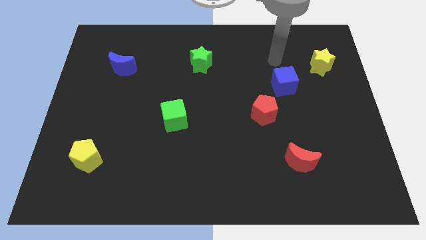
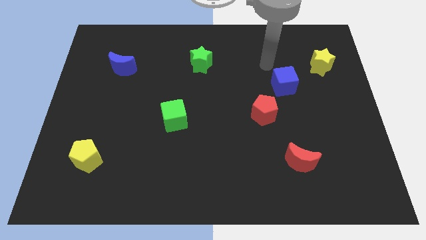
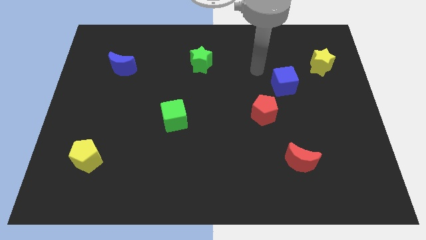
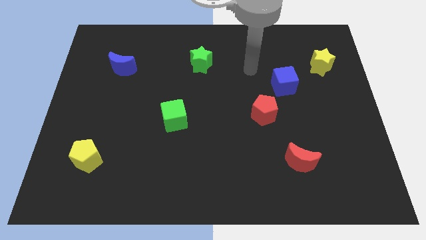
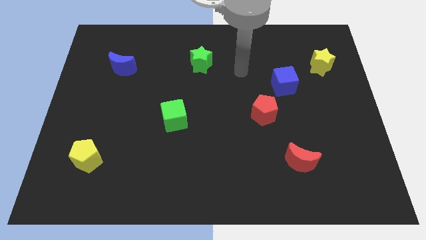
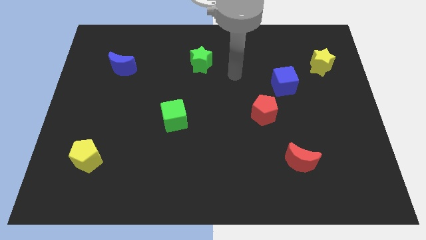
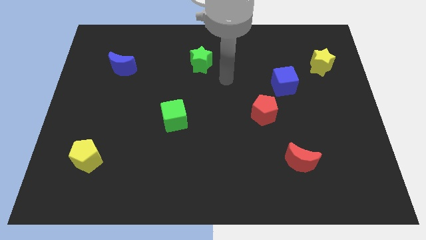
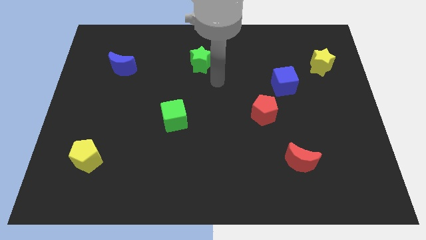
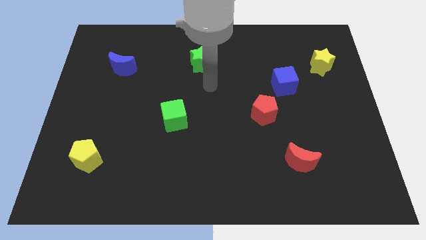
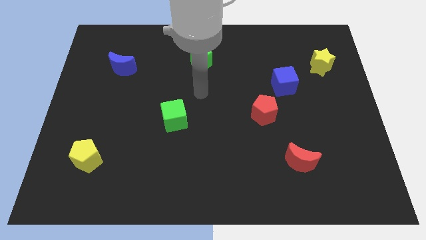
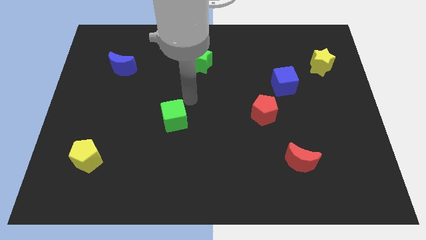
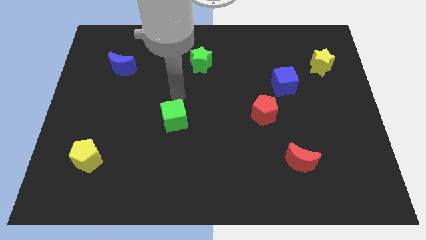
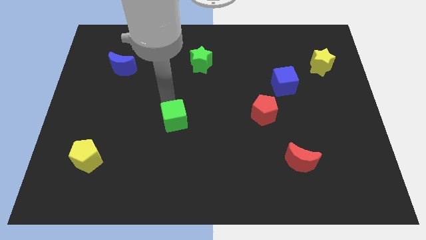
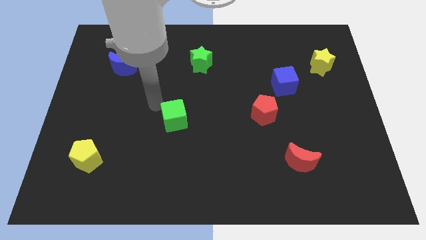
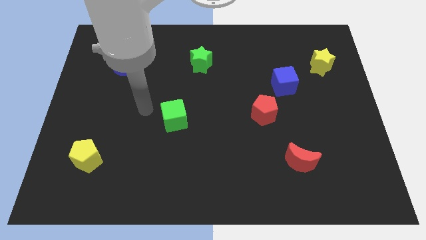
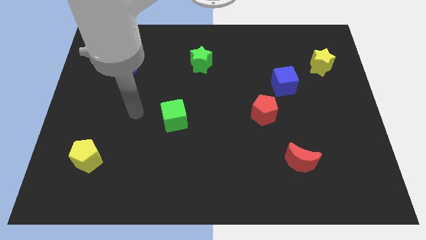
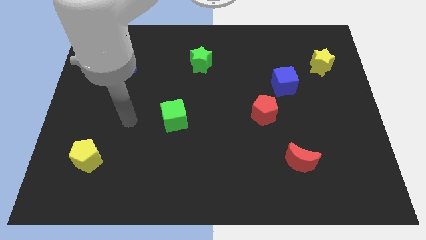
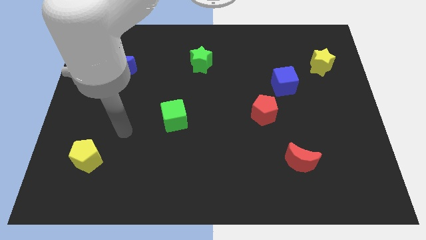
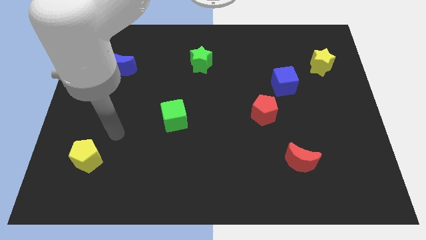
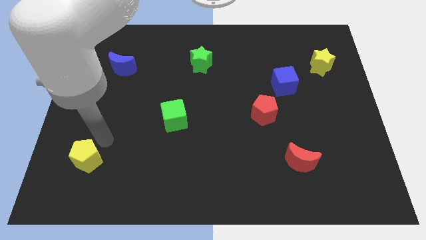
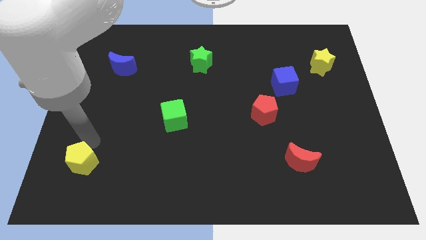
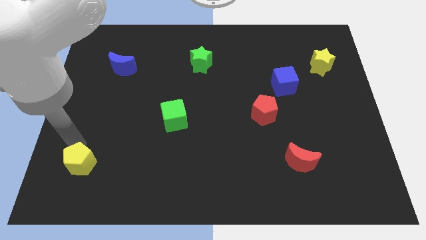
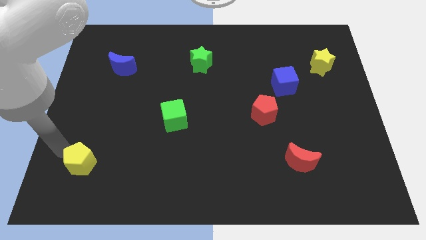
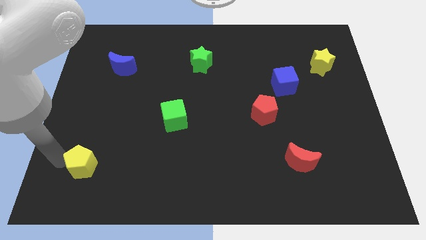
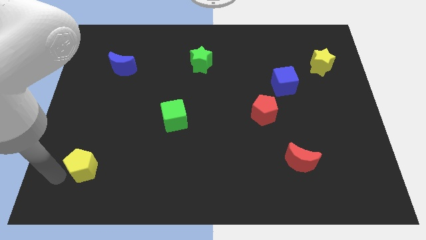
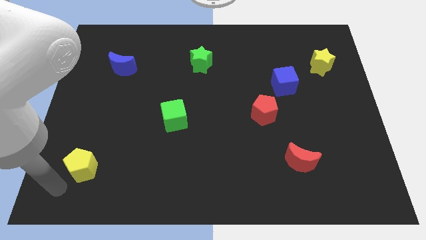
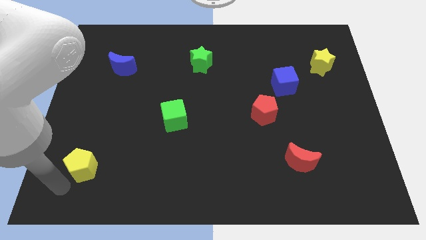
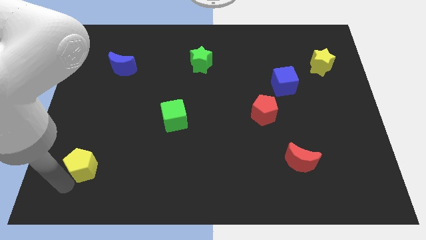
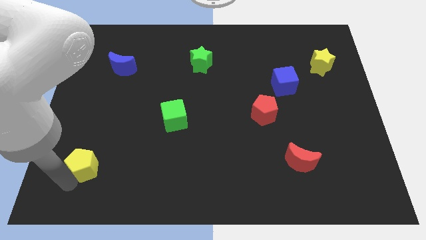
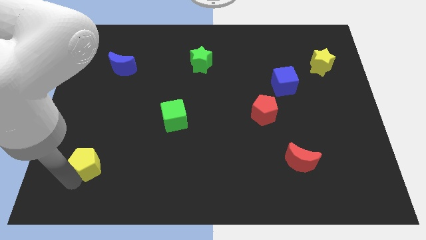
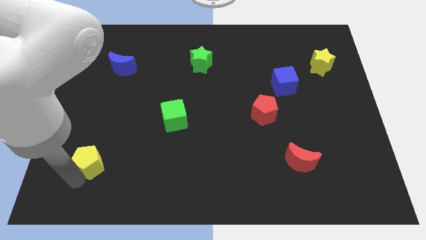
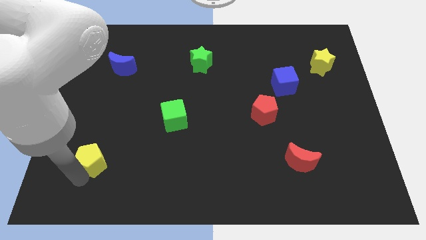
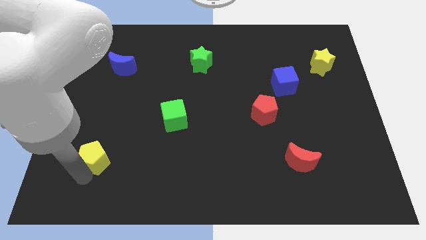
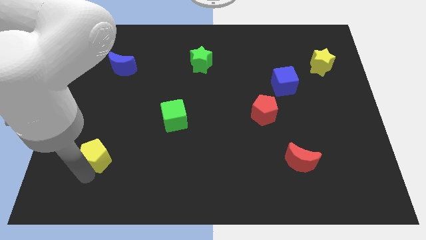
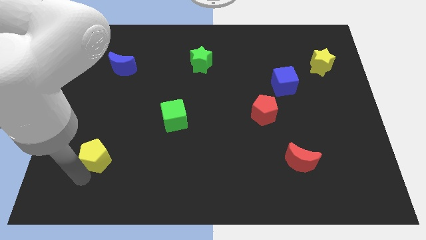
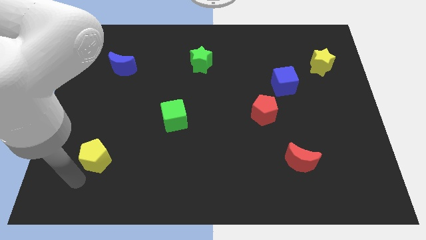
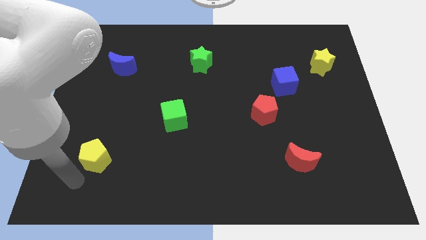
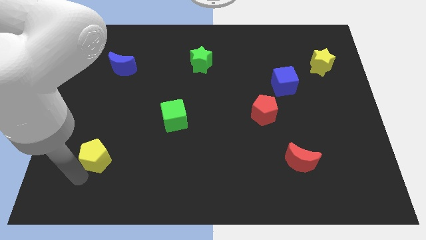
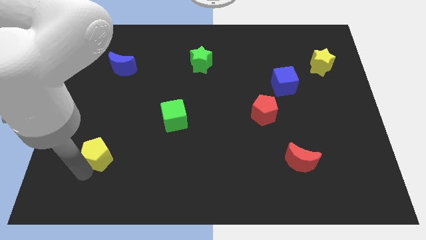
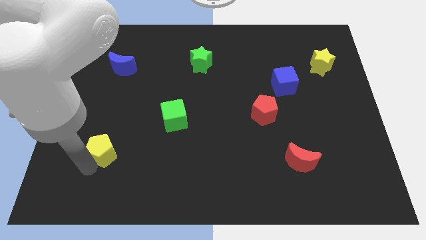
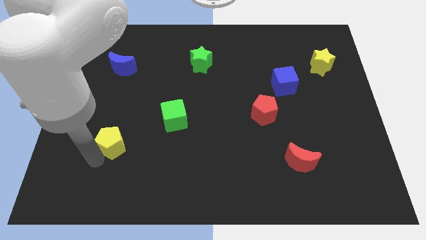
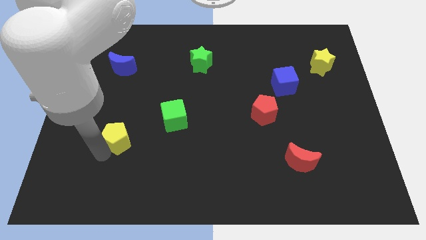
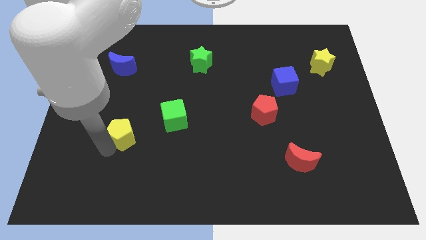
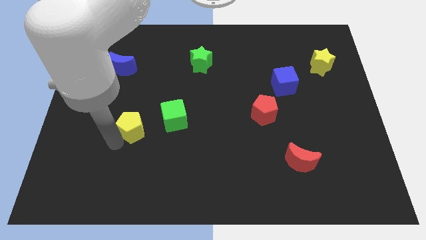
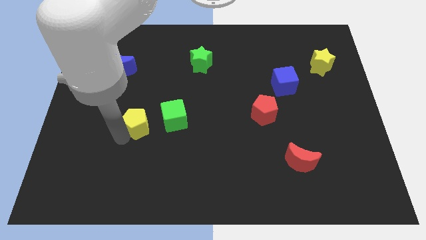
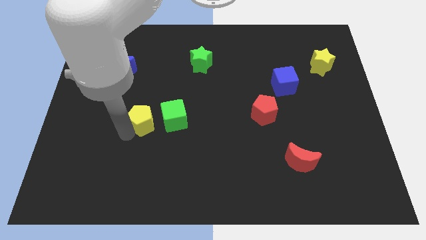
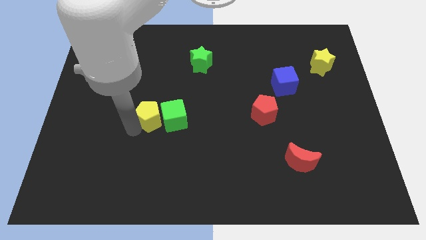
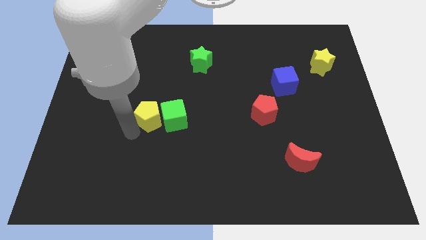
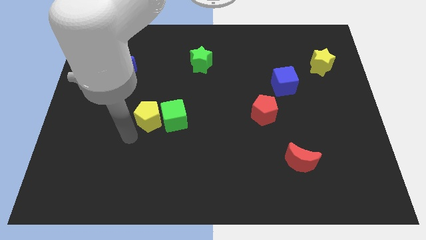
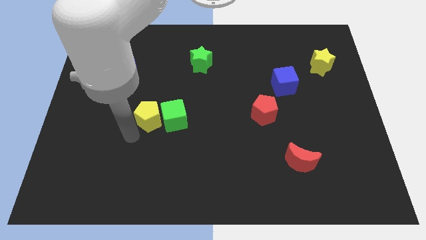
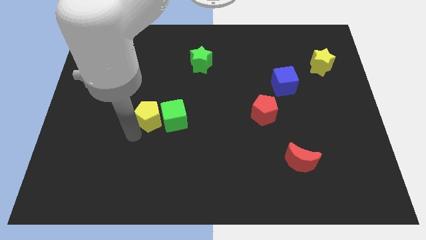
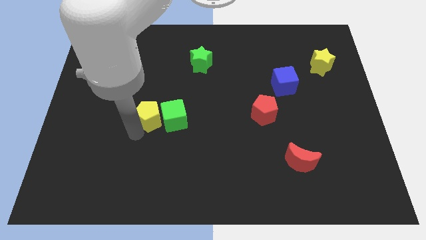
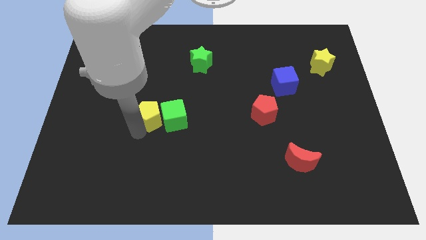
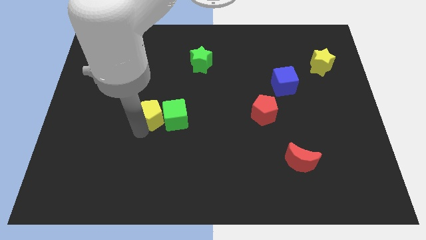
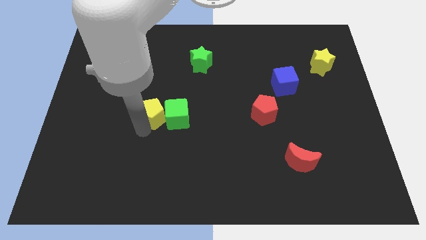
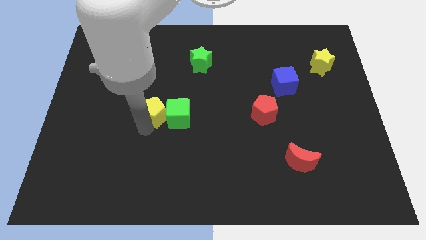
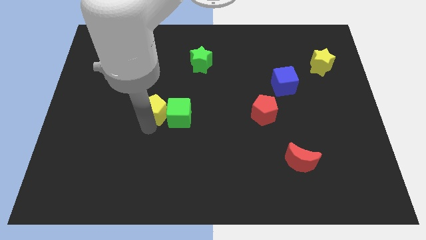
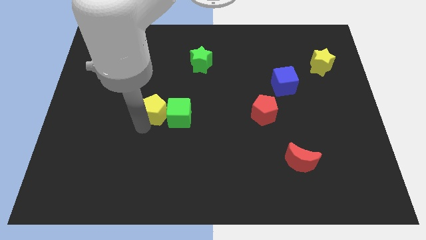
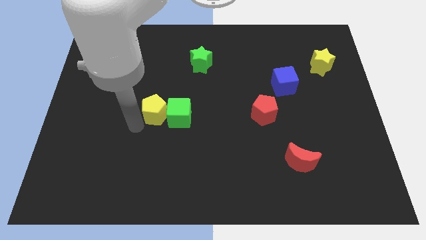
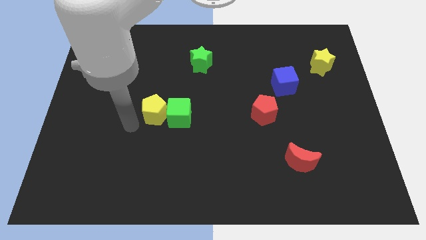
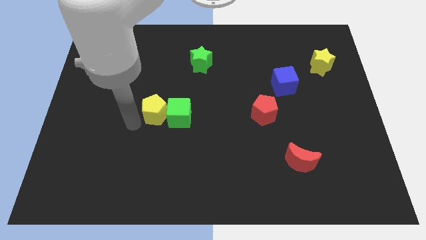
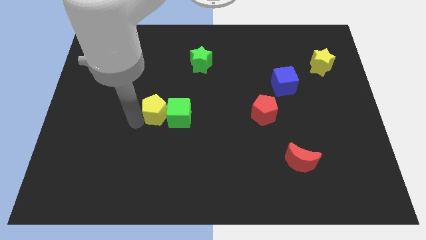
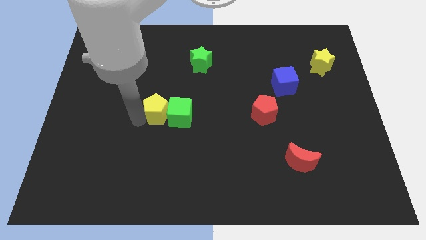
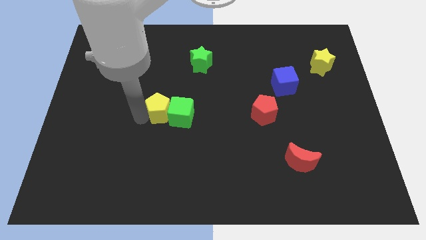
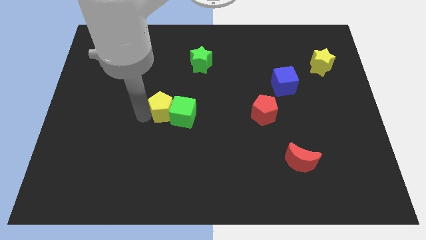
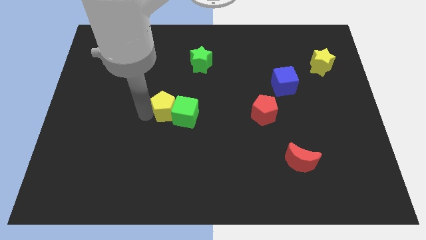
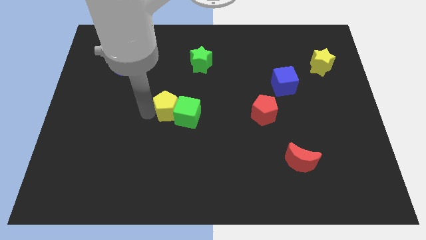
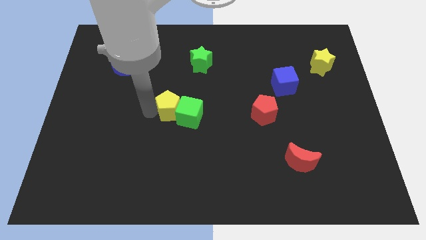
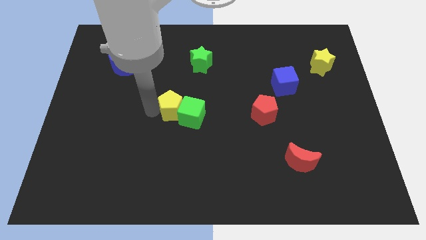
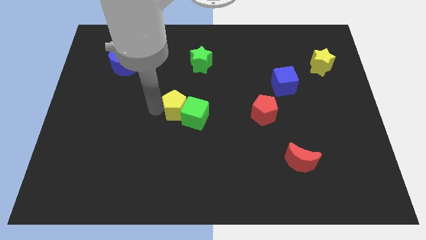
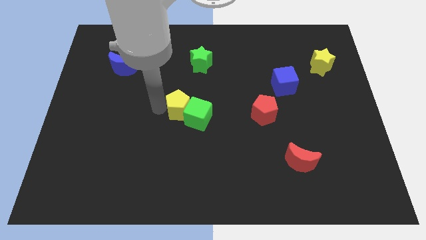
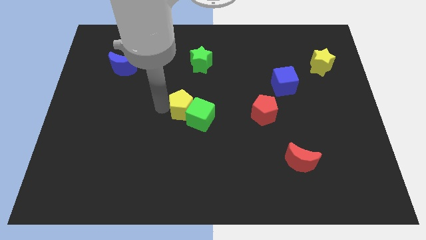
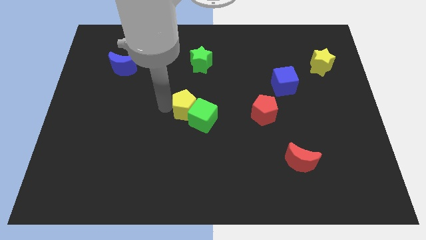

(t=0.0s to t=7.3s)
put the yellow pentagon to the bottom of the green star
